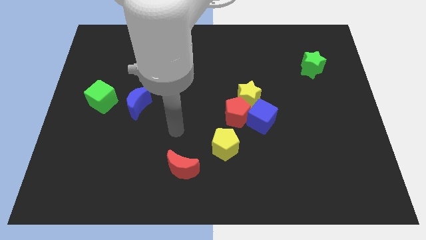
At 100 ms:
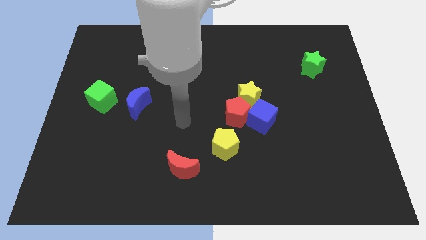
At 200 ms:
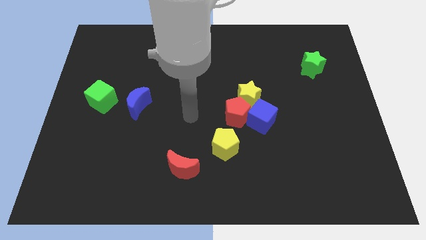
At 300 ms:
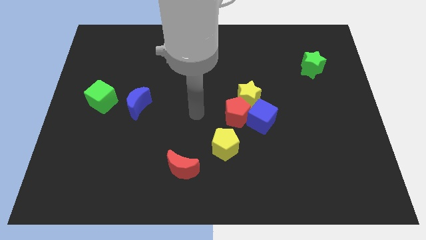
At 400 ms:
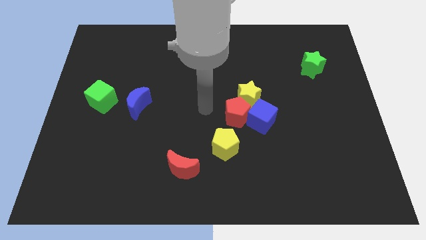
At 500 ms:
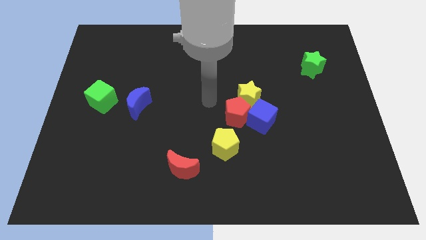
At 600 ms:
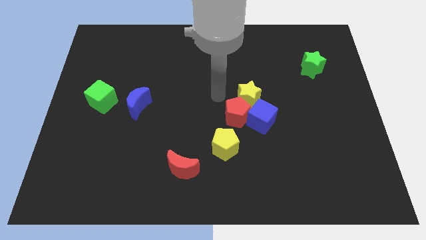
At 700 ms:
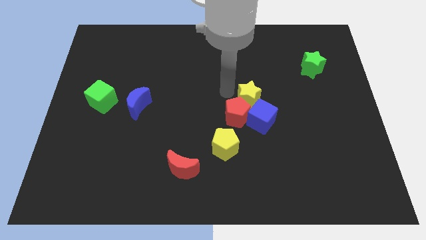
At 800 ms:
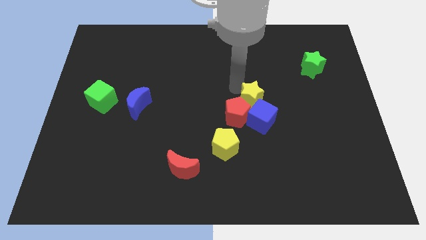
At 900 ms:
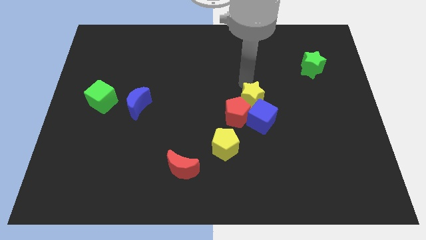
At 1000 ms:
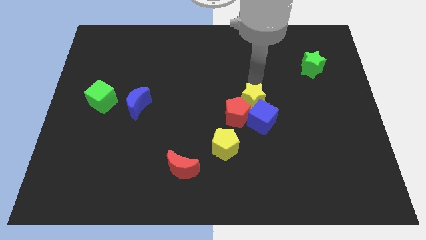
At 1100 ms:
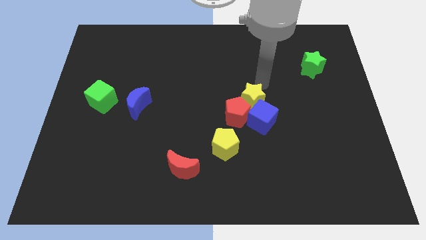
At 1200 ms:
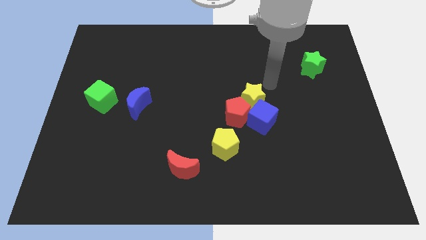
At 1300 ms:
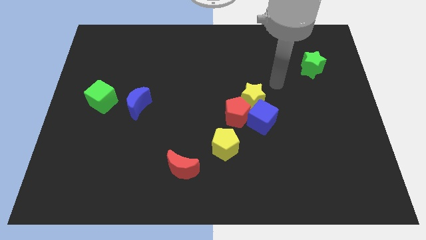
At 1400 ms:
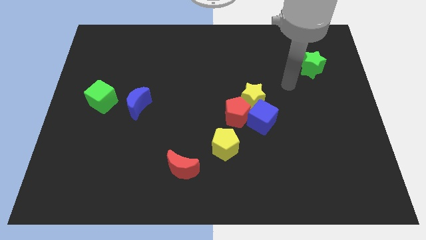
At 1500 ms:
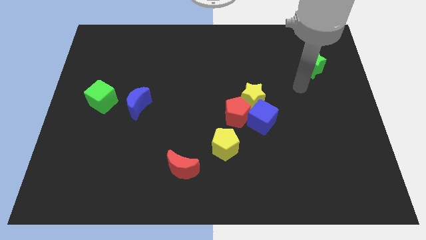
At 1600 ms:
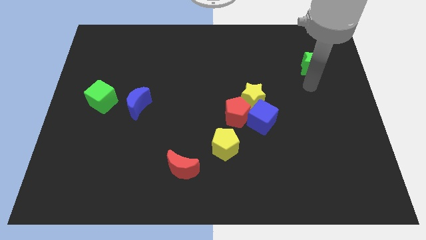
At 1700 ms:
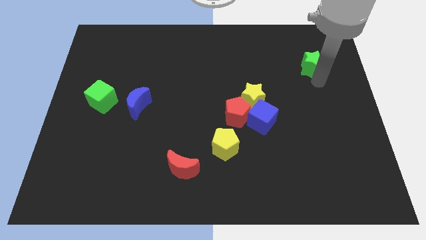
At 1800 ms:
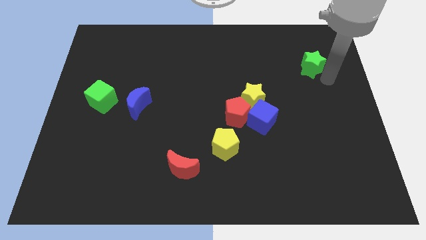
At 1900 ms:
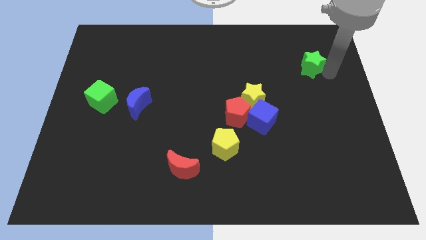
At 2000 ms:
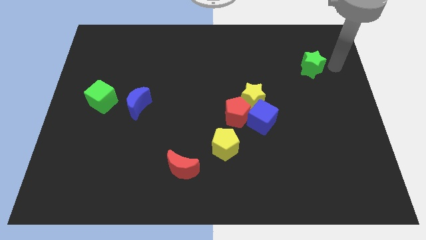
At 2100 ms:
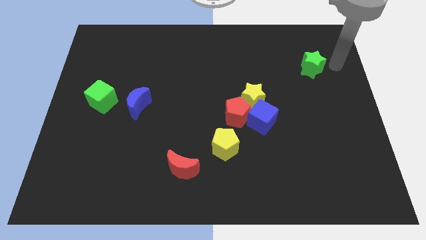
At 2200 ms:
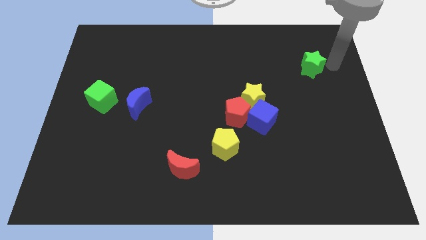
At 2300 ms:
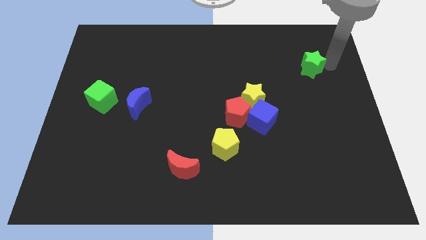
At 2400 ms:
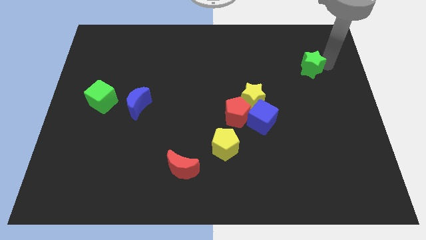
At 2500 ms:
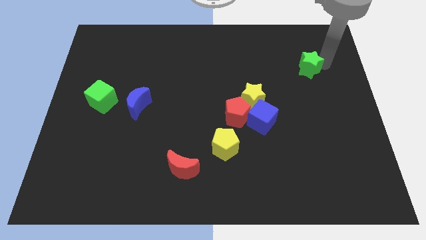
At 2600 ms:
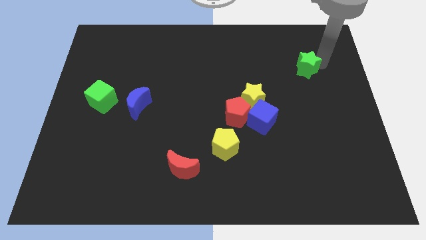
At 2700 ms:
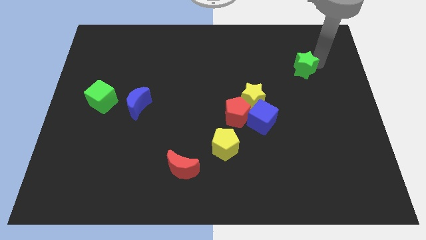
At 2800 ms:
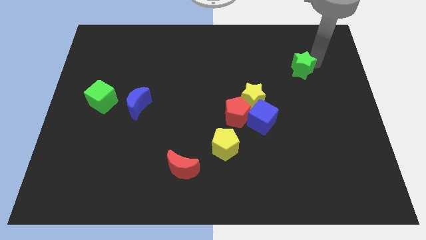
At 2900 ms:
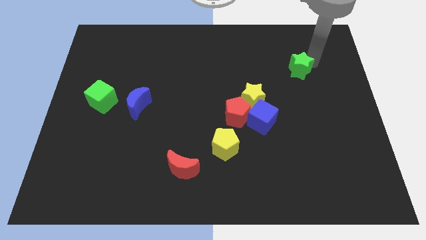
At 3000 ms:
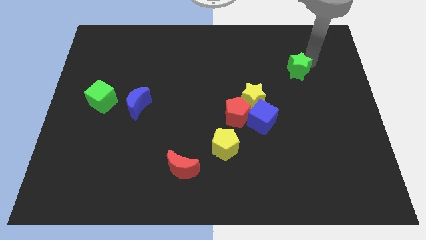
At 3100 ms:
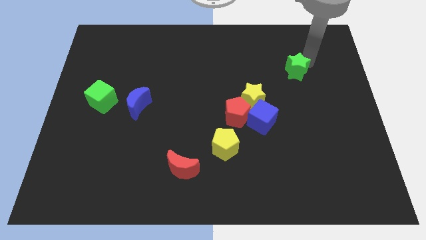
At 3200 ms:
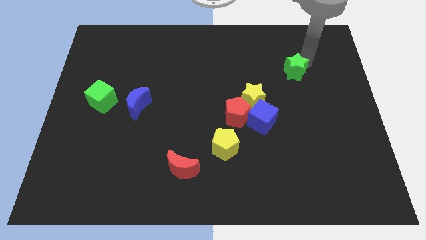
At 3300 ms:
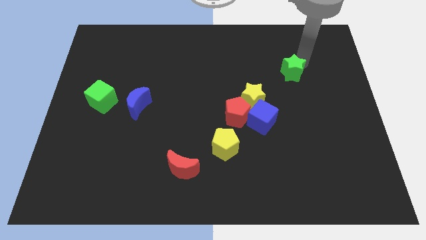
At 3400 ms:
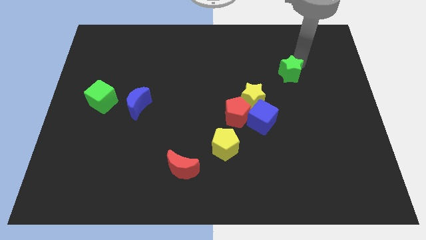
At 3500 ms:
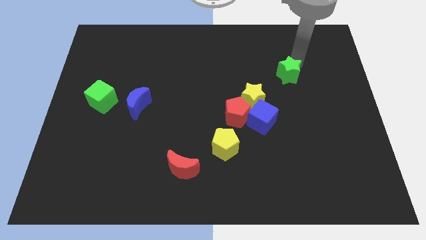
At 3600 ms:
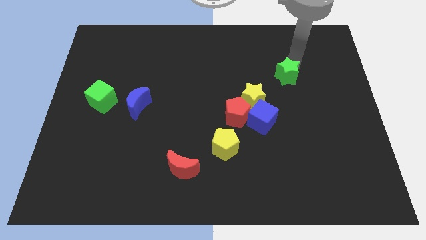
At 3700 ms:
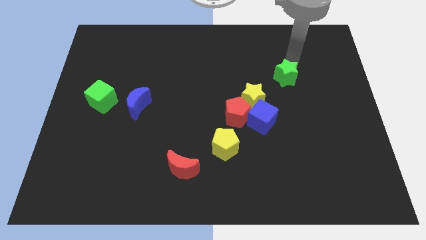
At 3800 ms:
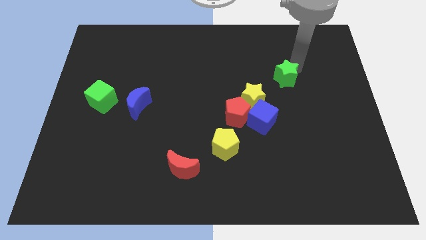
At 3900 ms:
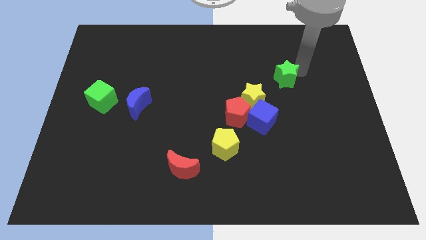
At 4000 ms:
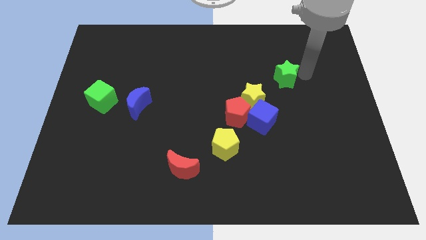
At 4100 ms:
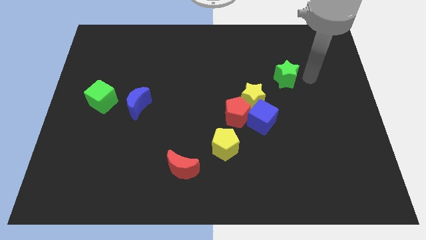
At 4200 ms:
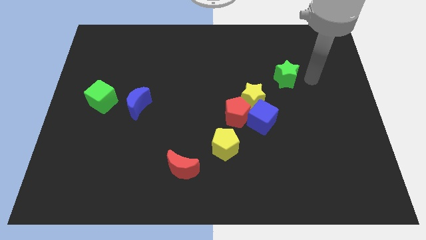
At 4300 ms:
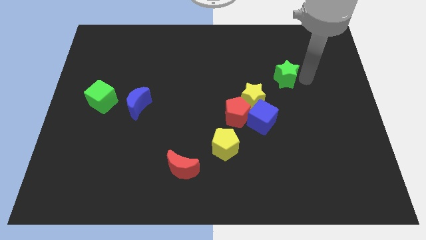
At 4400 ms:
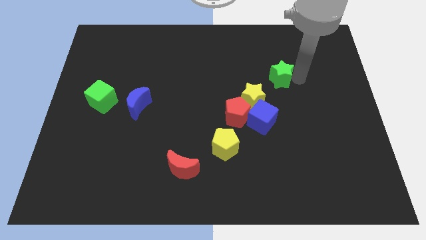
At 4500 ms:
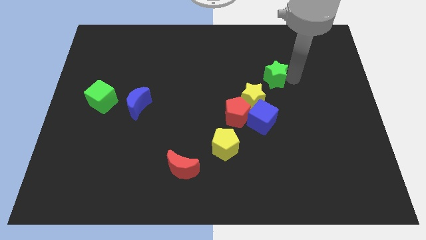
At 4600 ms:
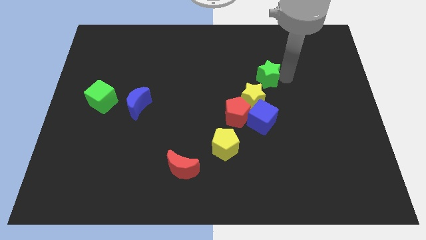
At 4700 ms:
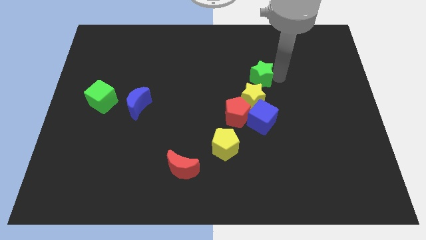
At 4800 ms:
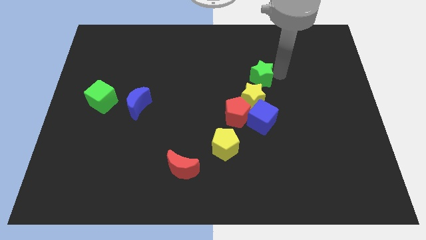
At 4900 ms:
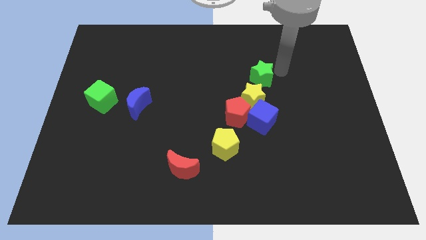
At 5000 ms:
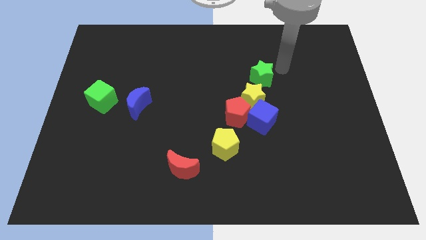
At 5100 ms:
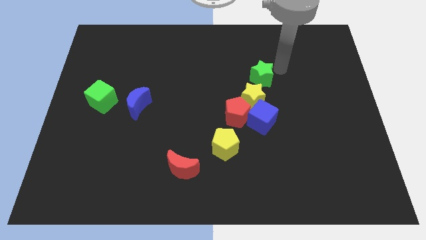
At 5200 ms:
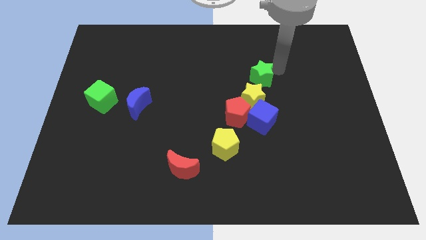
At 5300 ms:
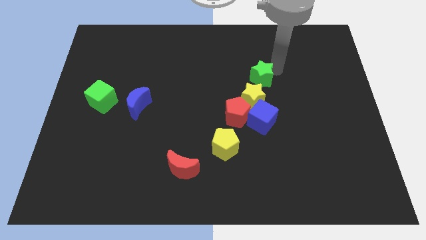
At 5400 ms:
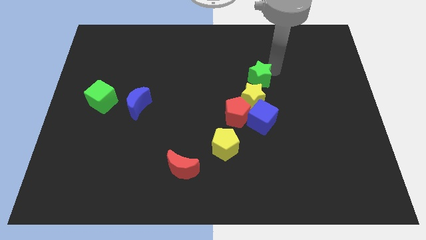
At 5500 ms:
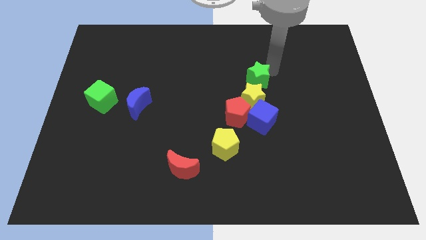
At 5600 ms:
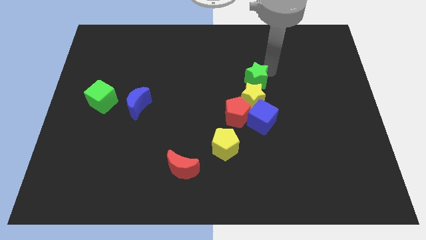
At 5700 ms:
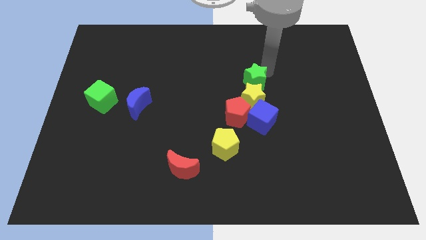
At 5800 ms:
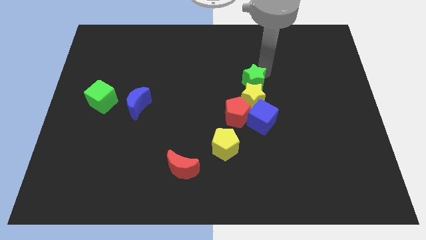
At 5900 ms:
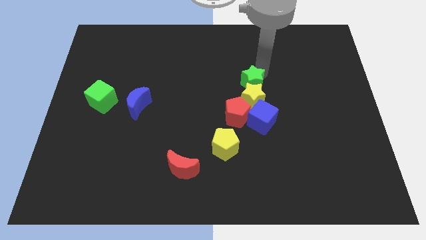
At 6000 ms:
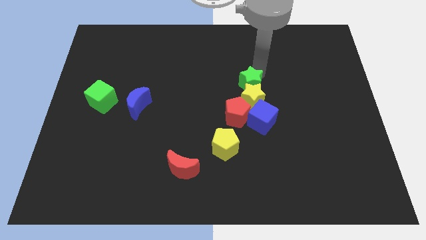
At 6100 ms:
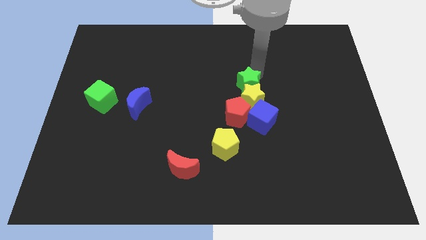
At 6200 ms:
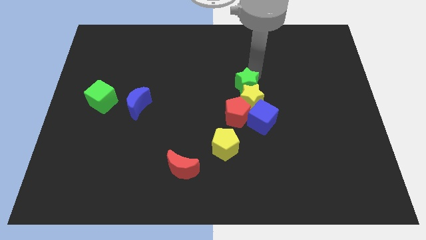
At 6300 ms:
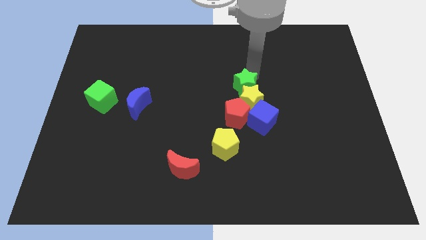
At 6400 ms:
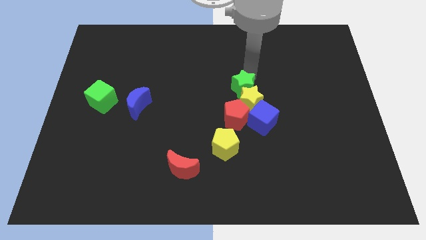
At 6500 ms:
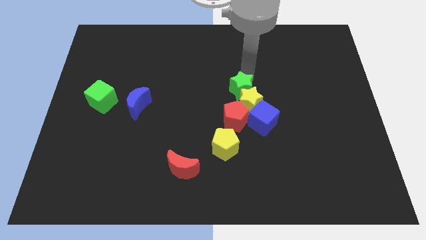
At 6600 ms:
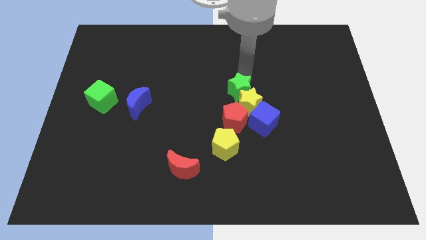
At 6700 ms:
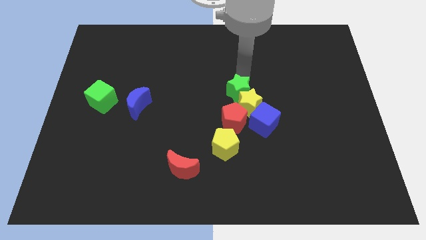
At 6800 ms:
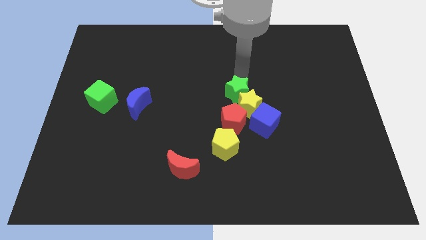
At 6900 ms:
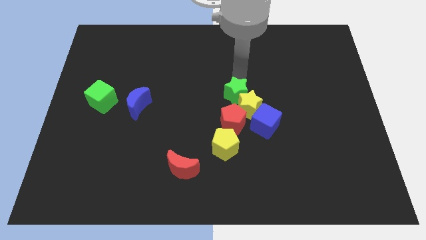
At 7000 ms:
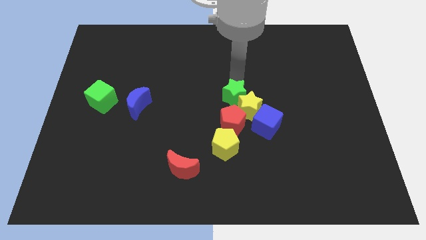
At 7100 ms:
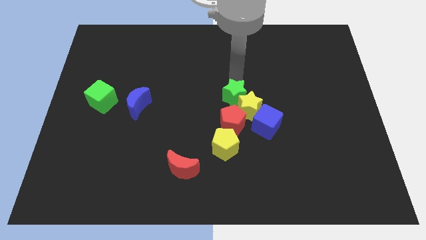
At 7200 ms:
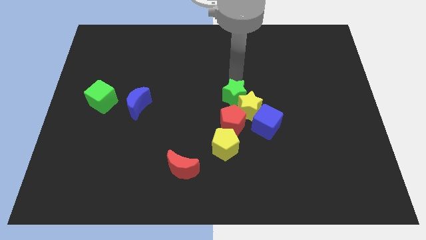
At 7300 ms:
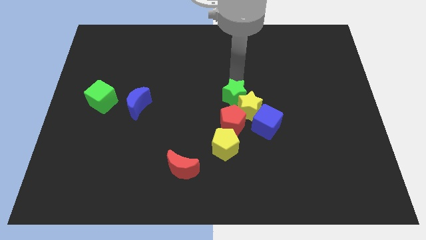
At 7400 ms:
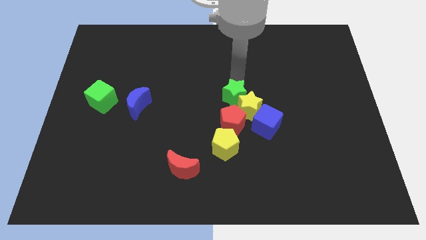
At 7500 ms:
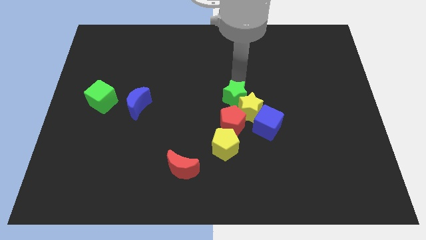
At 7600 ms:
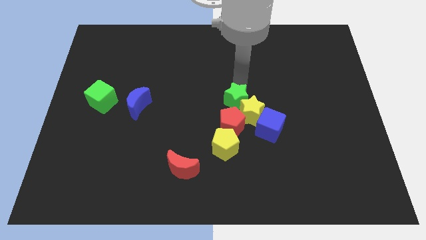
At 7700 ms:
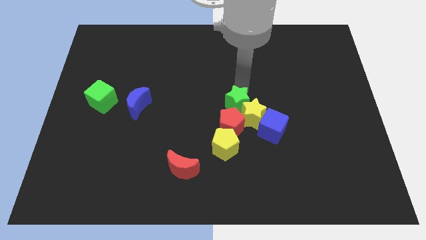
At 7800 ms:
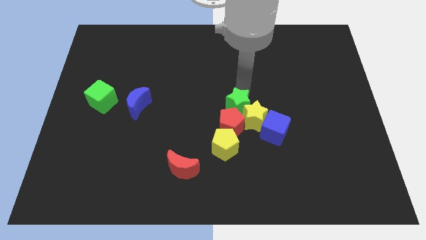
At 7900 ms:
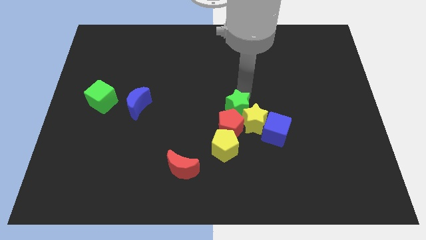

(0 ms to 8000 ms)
slide the green star close to the red pentagon

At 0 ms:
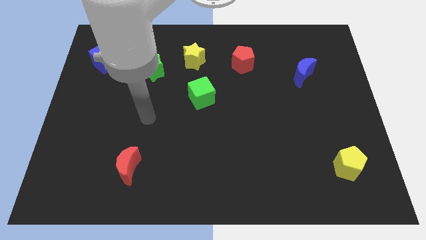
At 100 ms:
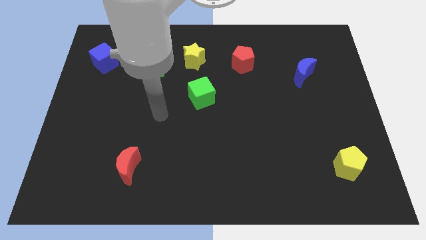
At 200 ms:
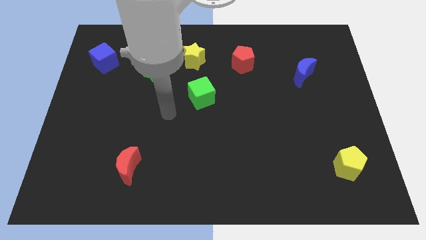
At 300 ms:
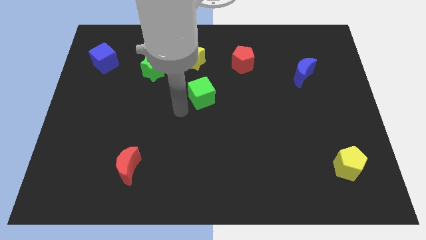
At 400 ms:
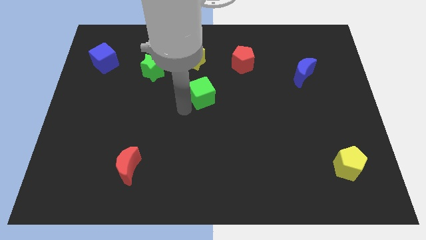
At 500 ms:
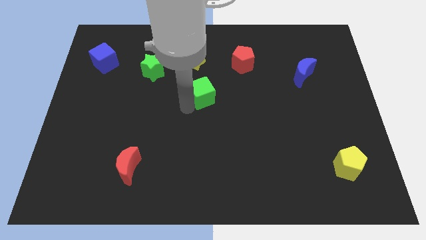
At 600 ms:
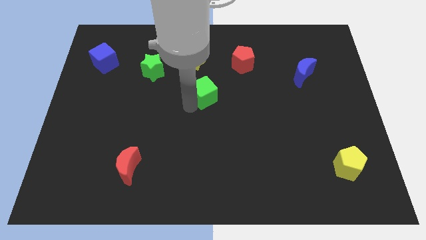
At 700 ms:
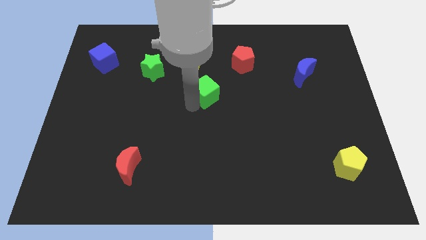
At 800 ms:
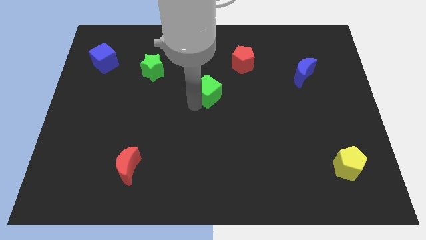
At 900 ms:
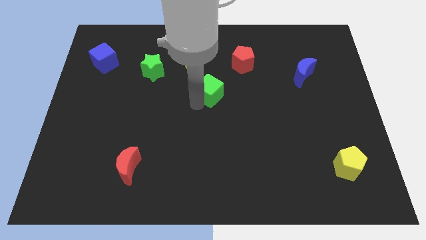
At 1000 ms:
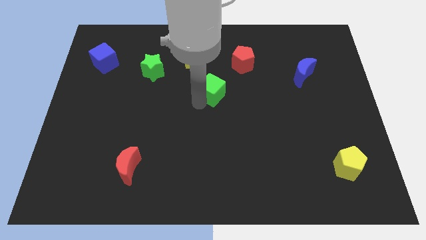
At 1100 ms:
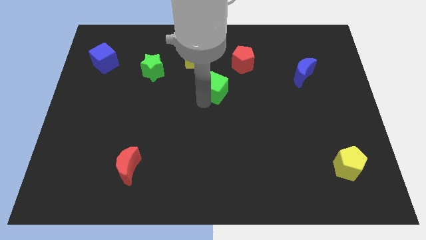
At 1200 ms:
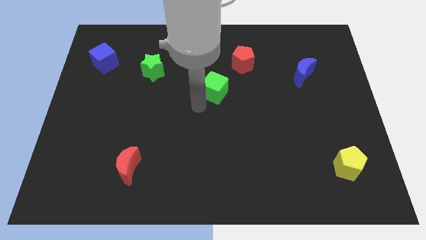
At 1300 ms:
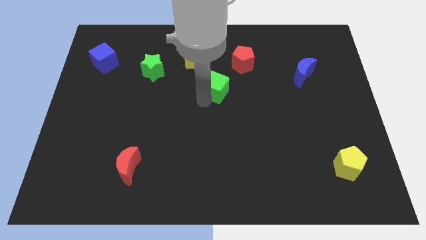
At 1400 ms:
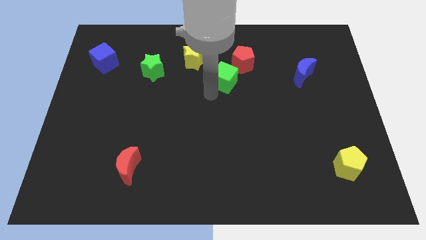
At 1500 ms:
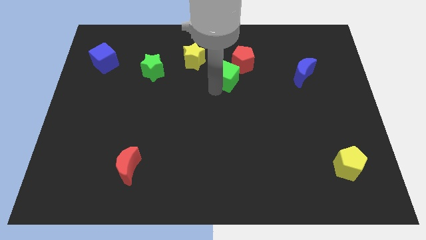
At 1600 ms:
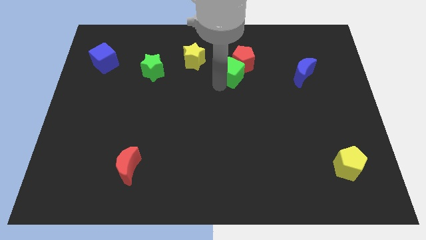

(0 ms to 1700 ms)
move the green cube to the red pentagon
